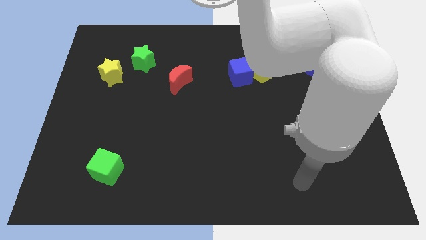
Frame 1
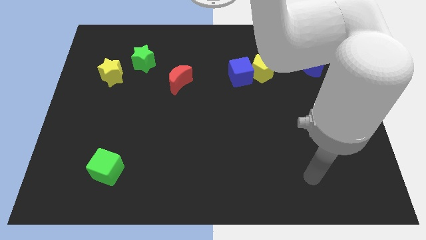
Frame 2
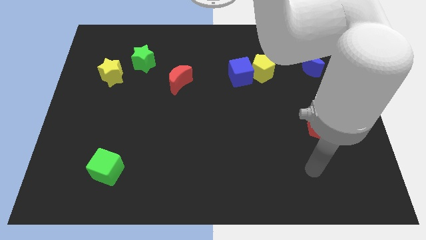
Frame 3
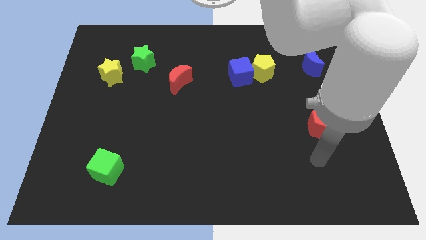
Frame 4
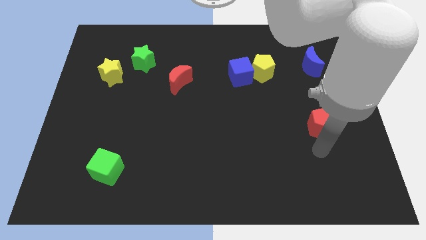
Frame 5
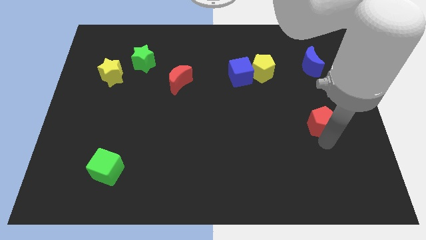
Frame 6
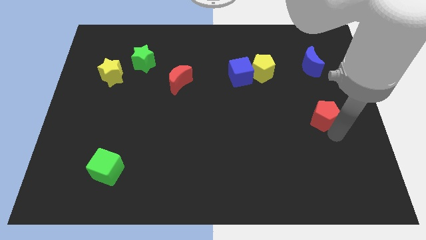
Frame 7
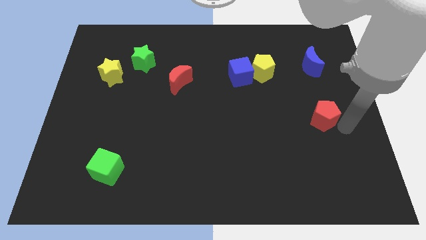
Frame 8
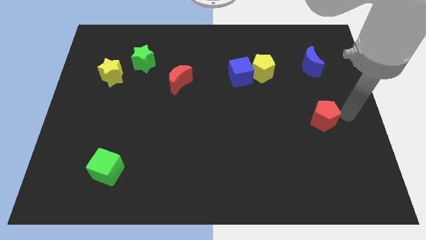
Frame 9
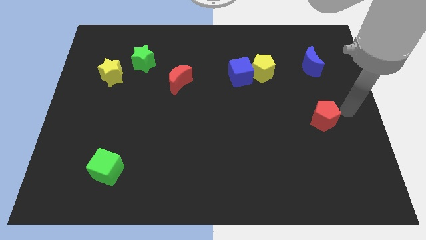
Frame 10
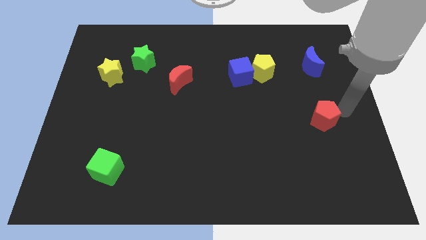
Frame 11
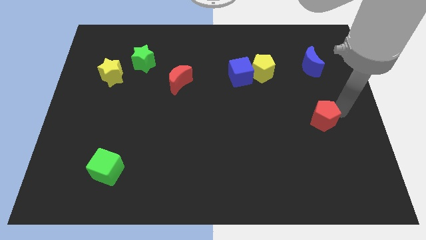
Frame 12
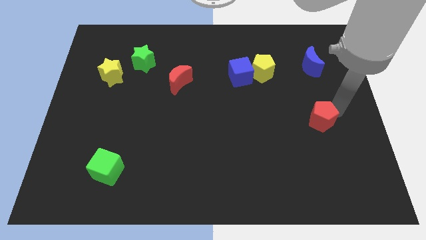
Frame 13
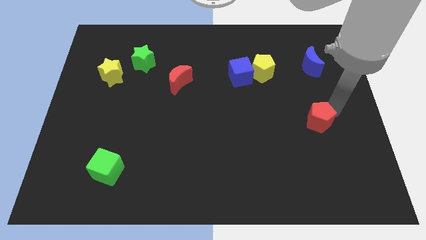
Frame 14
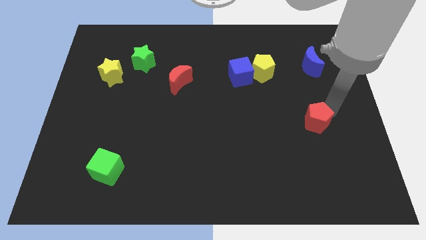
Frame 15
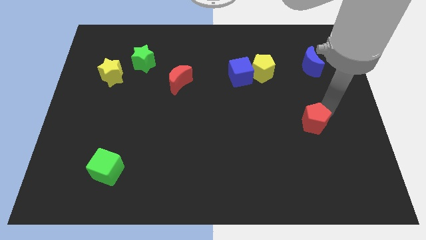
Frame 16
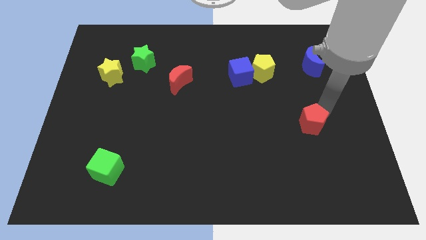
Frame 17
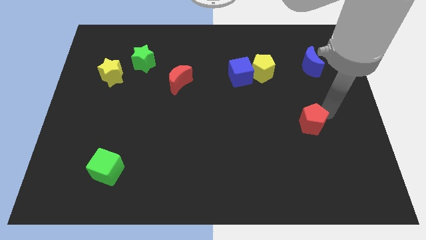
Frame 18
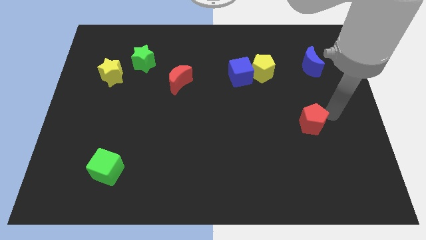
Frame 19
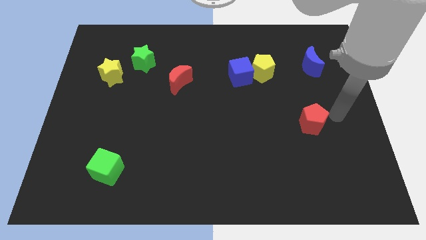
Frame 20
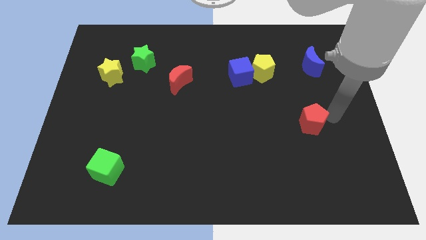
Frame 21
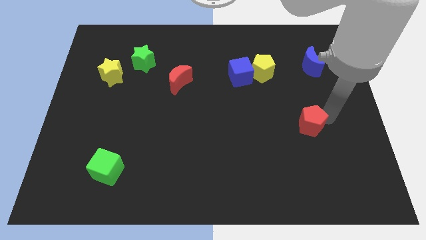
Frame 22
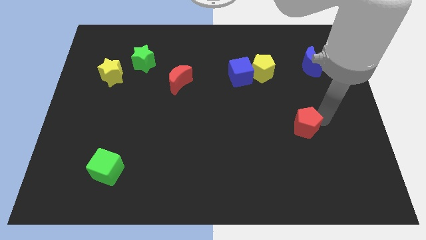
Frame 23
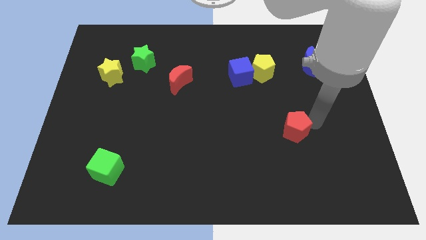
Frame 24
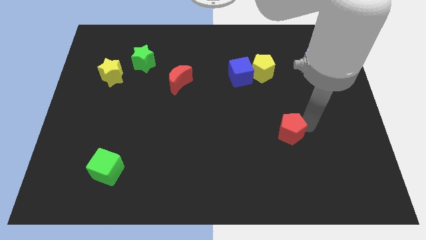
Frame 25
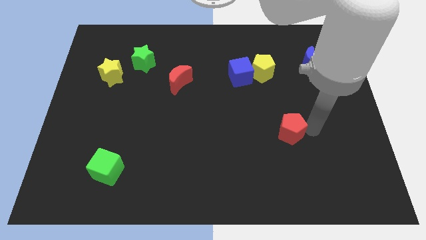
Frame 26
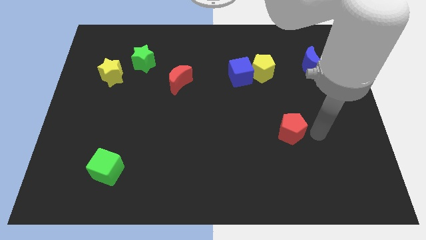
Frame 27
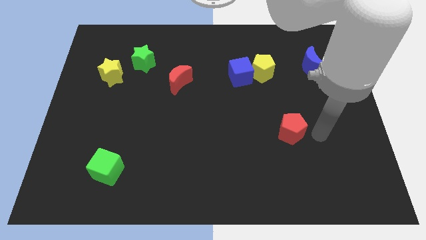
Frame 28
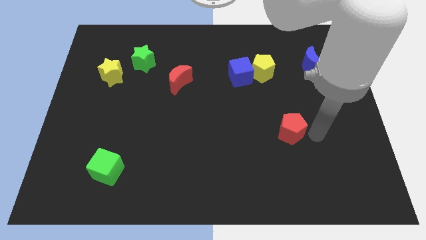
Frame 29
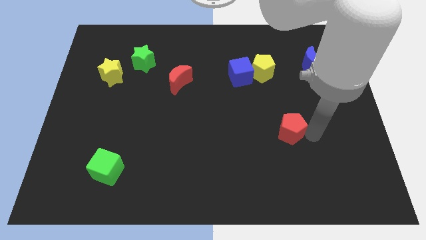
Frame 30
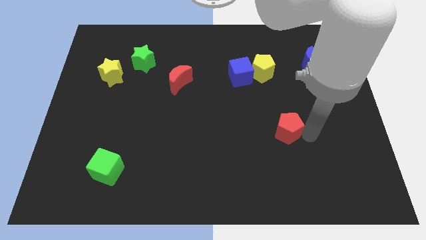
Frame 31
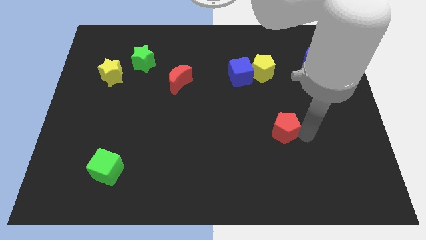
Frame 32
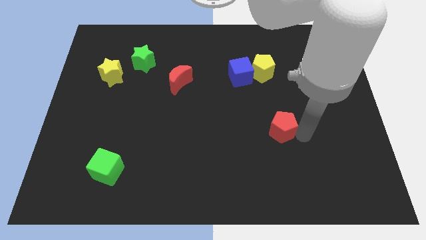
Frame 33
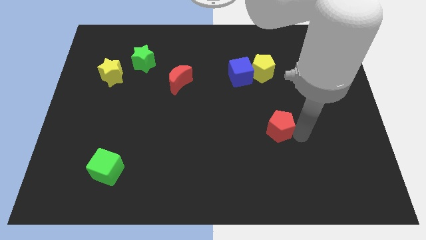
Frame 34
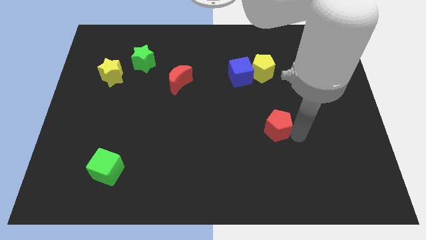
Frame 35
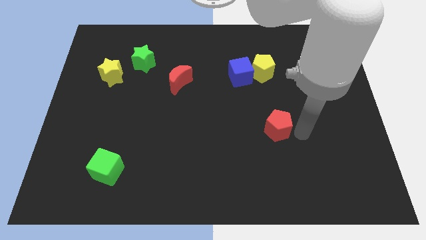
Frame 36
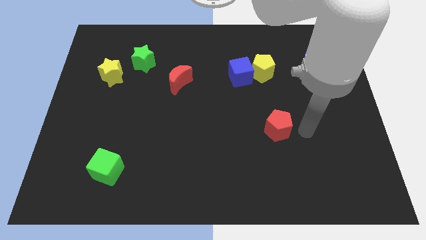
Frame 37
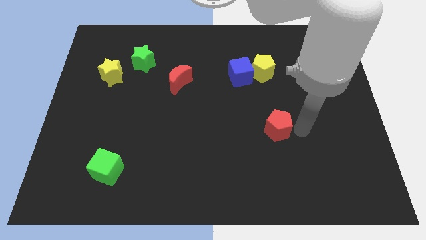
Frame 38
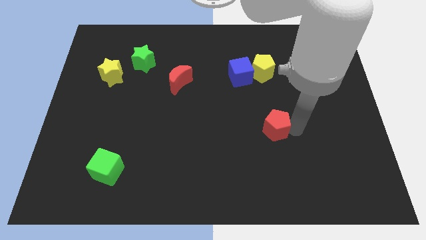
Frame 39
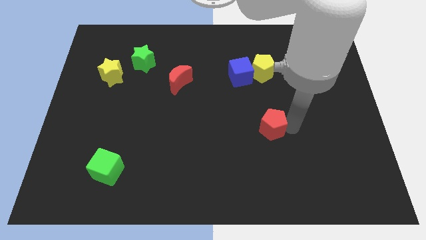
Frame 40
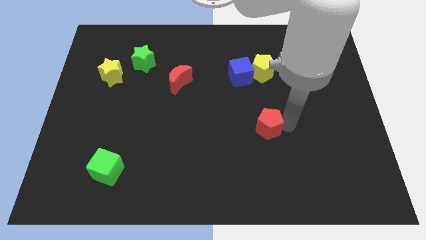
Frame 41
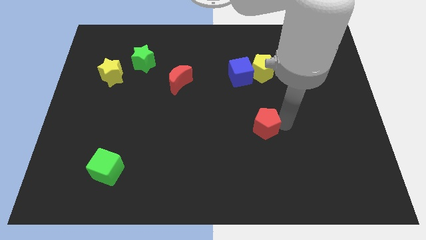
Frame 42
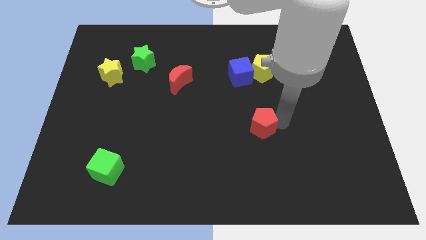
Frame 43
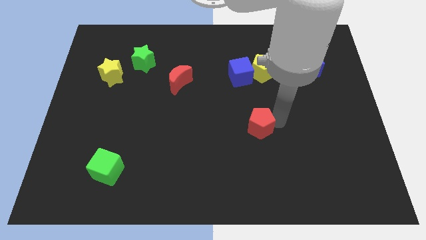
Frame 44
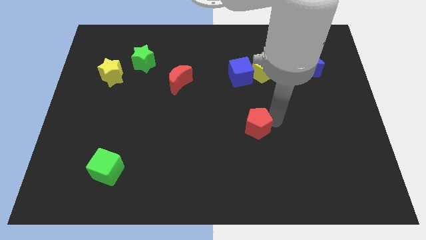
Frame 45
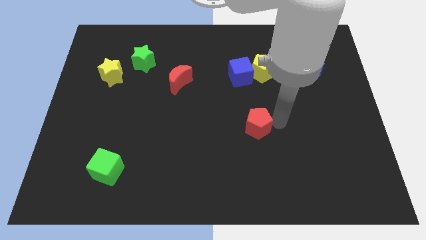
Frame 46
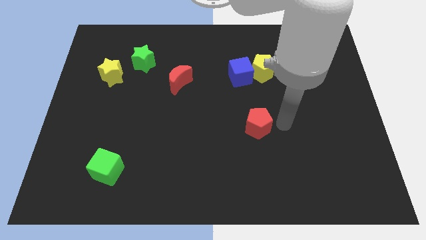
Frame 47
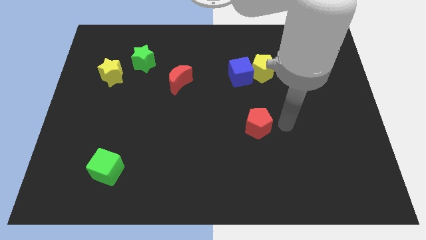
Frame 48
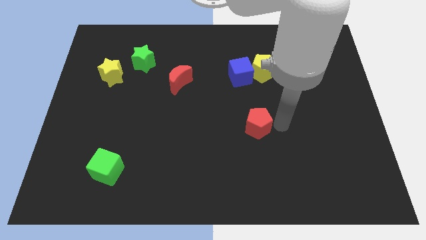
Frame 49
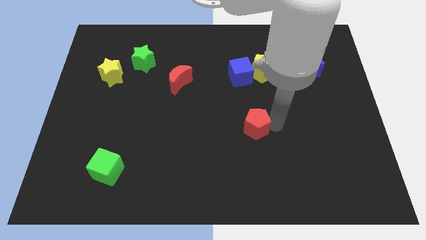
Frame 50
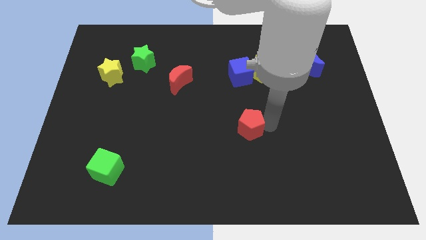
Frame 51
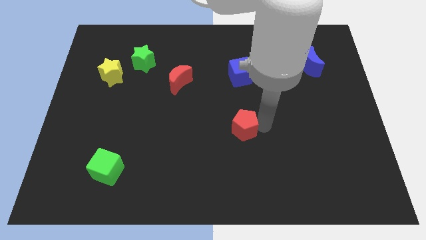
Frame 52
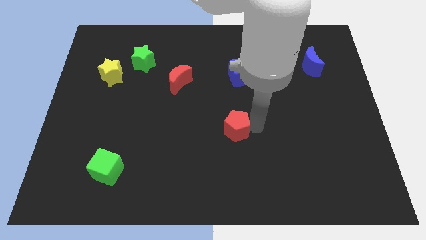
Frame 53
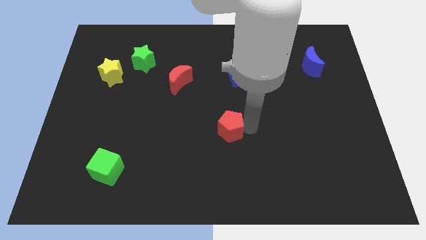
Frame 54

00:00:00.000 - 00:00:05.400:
slide the red pentagon to the left

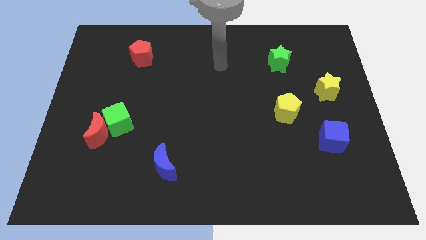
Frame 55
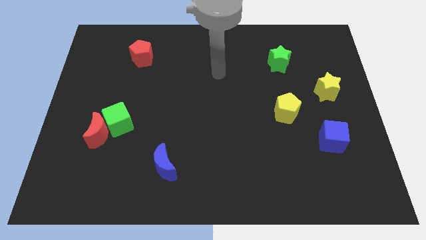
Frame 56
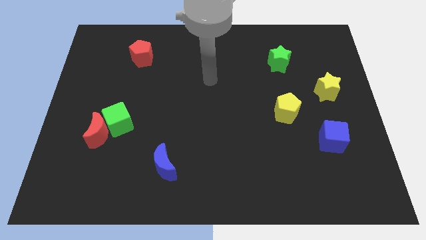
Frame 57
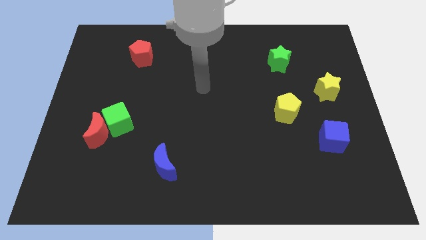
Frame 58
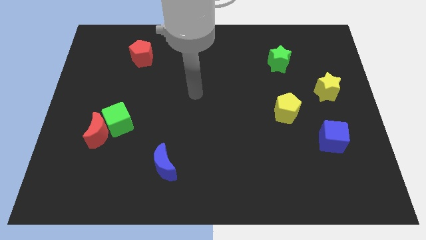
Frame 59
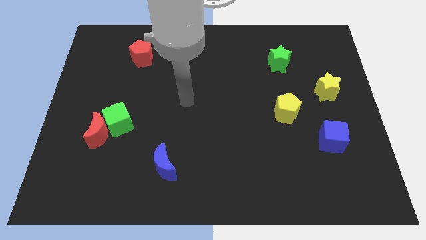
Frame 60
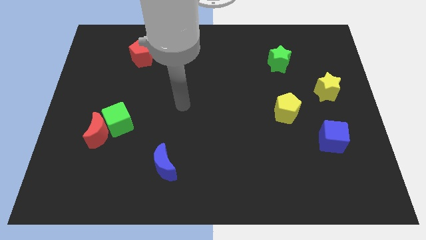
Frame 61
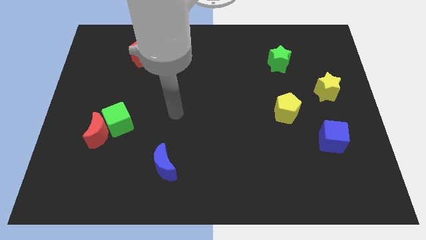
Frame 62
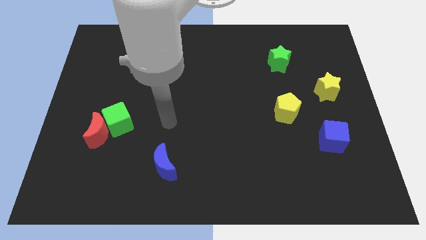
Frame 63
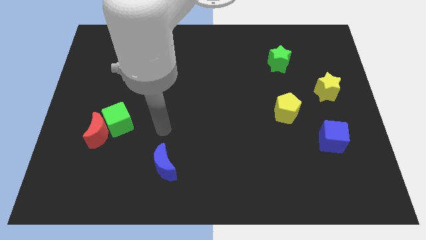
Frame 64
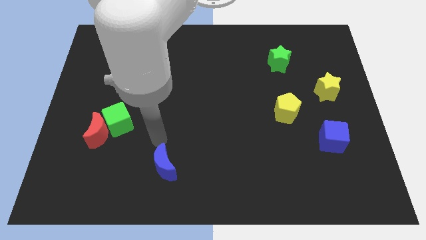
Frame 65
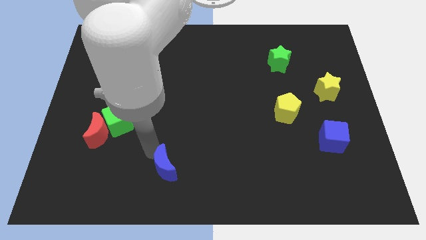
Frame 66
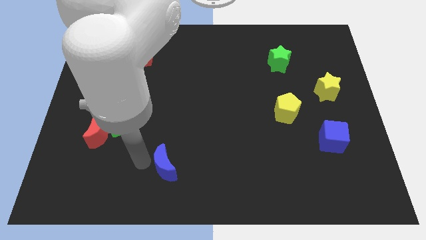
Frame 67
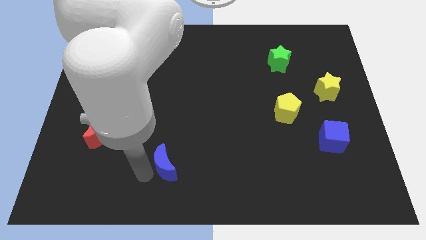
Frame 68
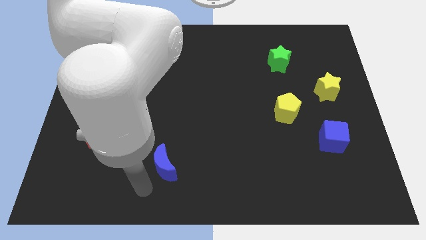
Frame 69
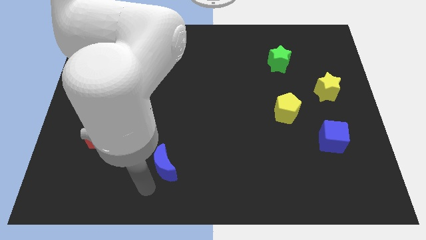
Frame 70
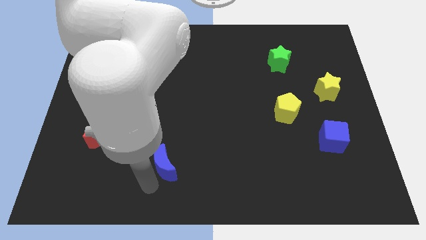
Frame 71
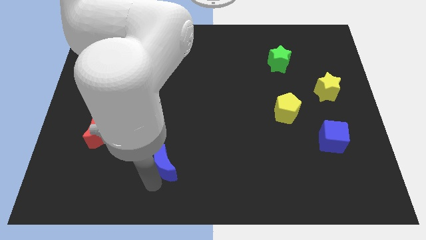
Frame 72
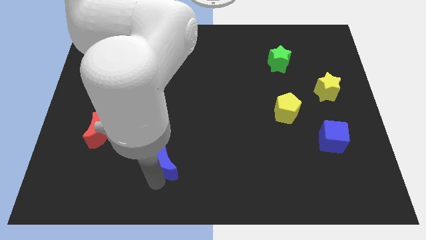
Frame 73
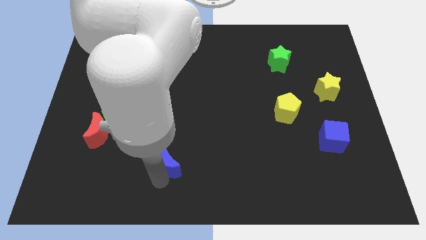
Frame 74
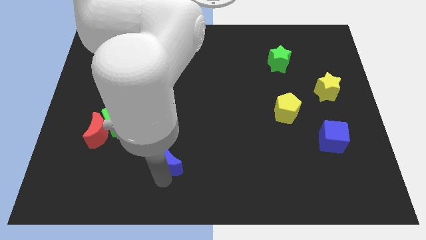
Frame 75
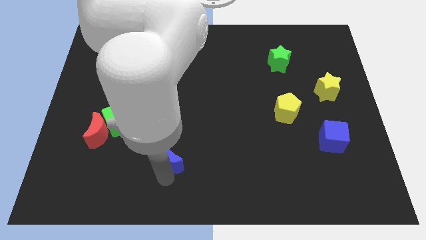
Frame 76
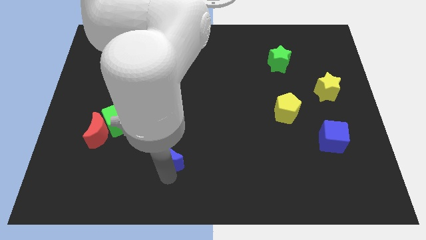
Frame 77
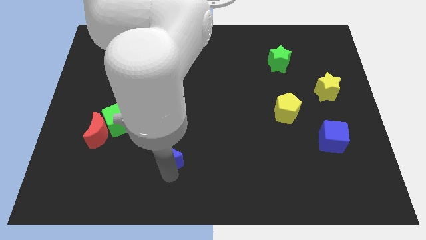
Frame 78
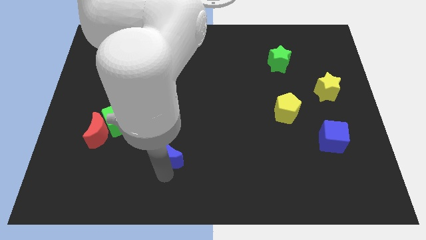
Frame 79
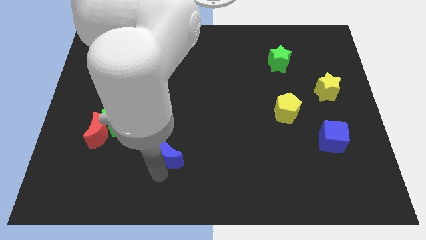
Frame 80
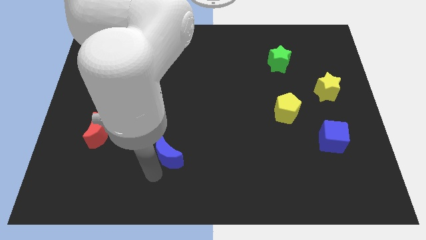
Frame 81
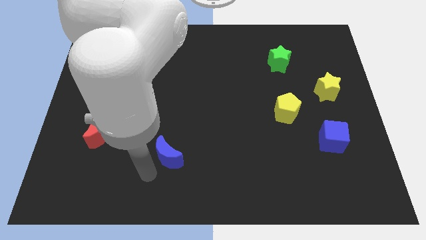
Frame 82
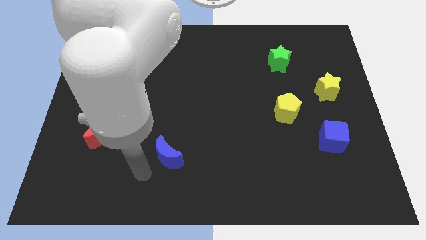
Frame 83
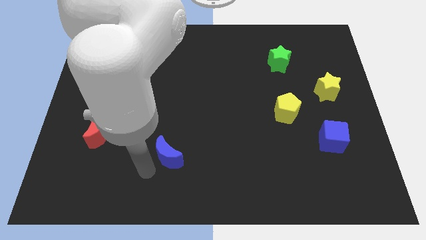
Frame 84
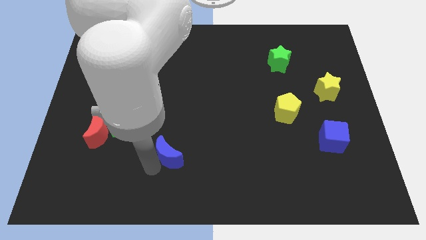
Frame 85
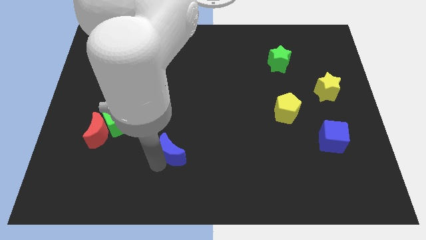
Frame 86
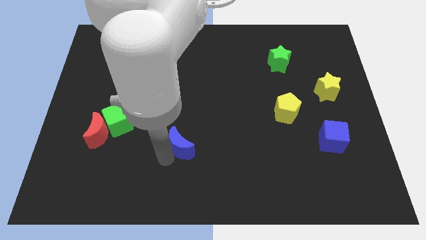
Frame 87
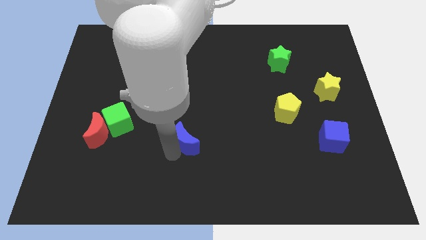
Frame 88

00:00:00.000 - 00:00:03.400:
slightly move the blue moon up and right diagonally
